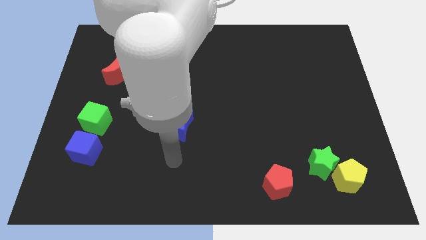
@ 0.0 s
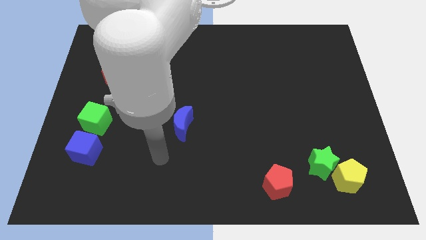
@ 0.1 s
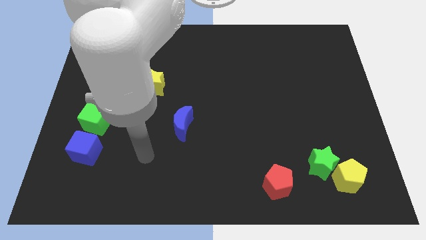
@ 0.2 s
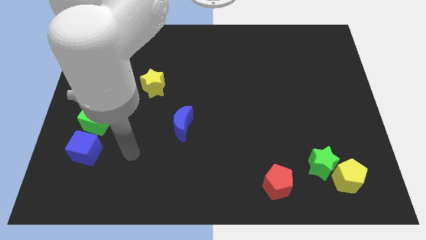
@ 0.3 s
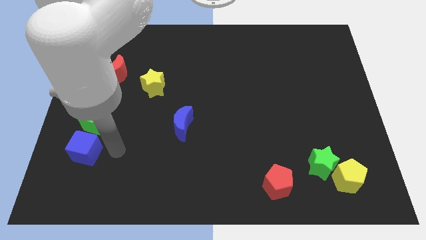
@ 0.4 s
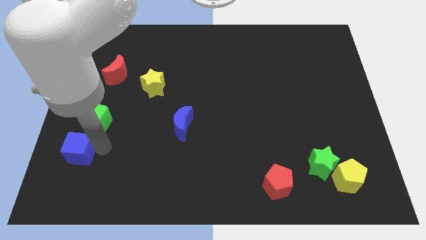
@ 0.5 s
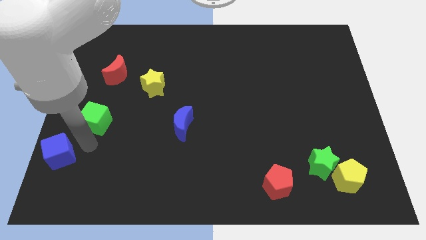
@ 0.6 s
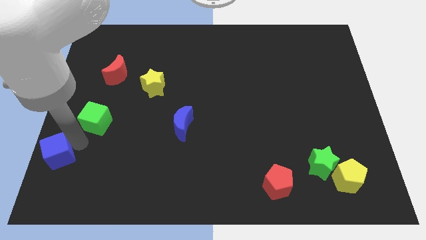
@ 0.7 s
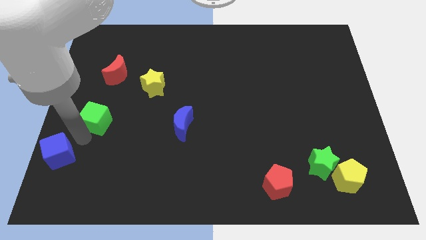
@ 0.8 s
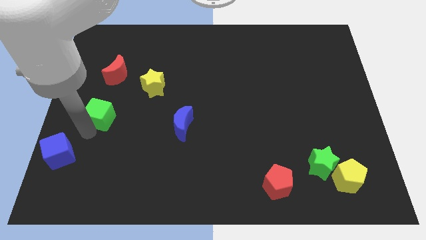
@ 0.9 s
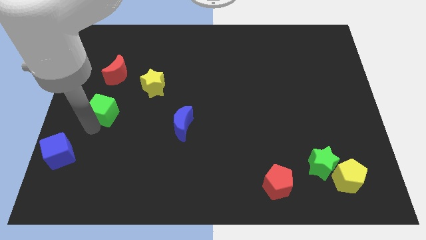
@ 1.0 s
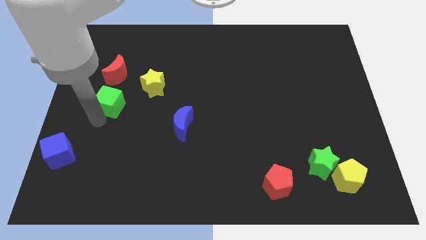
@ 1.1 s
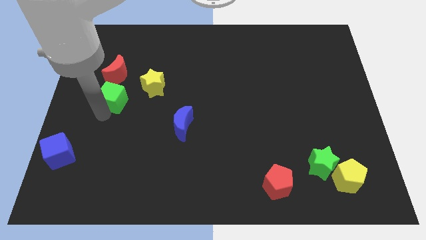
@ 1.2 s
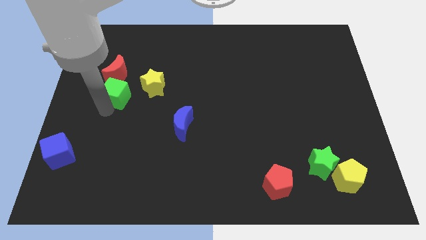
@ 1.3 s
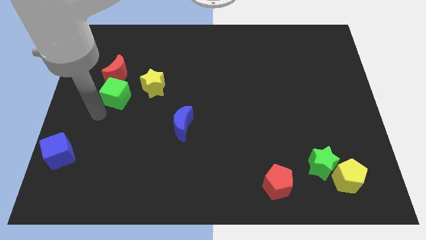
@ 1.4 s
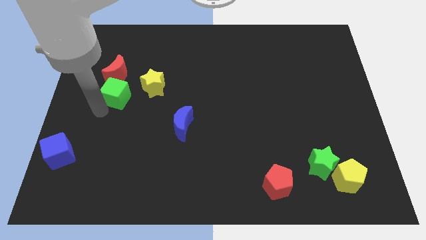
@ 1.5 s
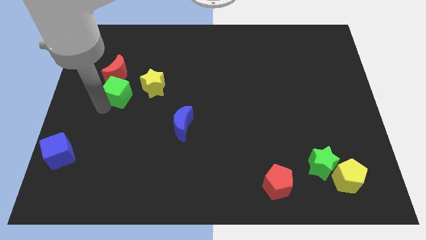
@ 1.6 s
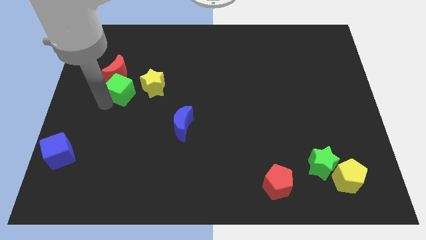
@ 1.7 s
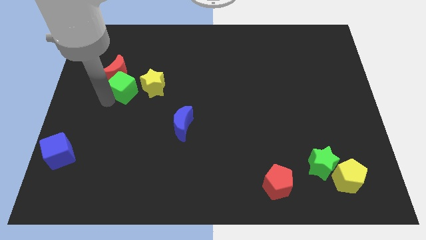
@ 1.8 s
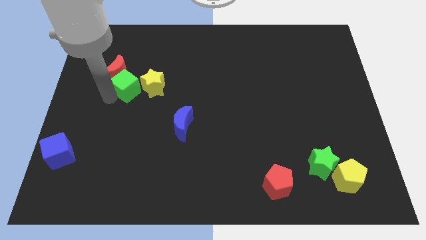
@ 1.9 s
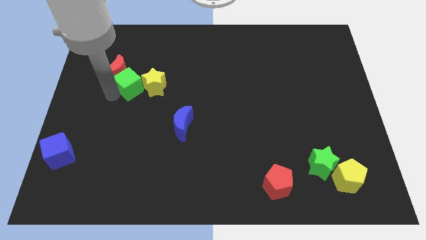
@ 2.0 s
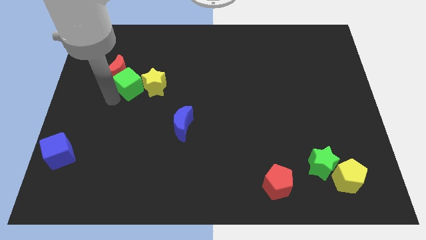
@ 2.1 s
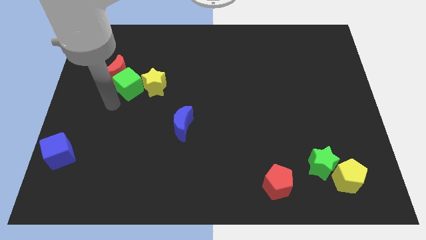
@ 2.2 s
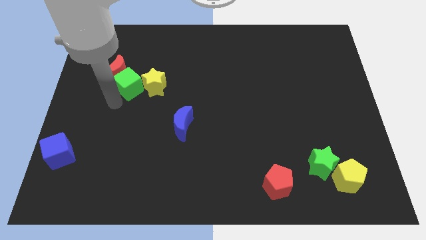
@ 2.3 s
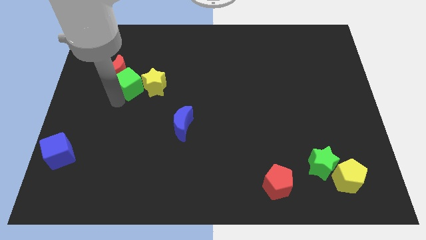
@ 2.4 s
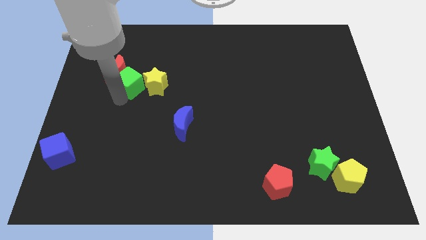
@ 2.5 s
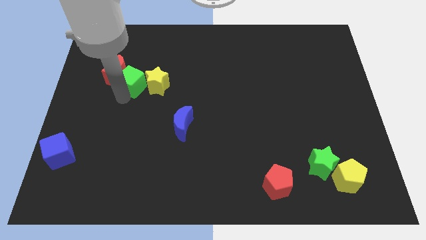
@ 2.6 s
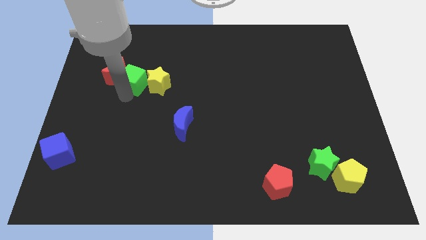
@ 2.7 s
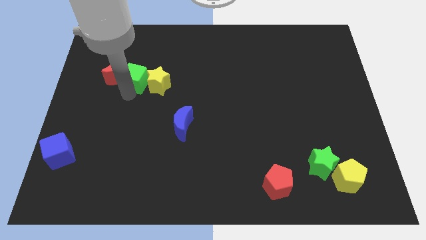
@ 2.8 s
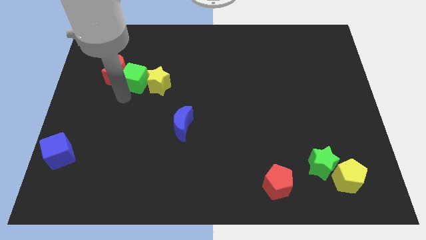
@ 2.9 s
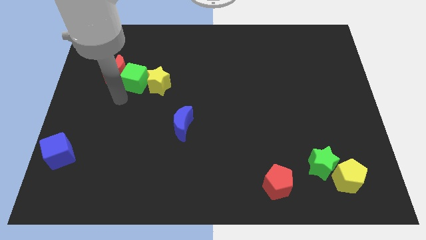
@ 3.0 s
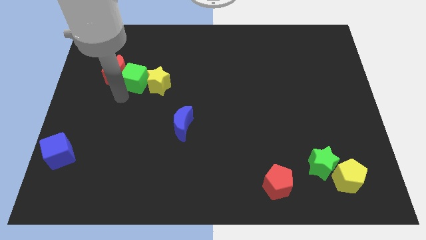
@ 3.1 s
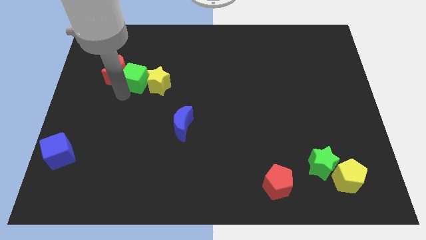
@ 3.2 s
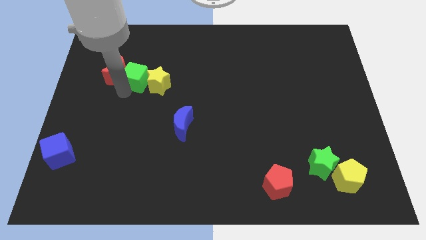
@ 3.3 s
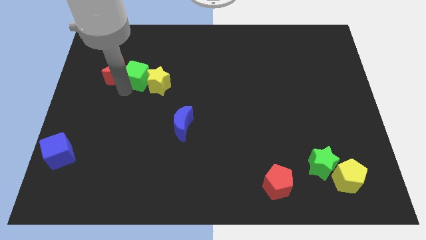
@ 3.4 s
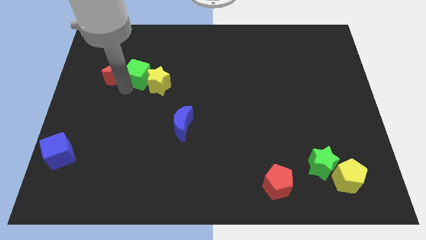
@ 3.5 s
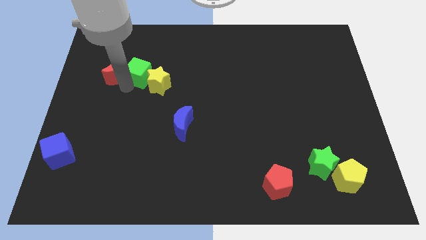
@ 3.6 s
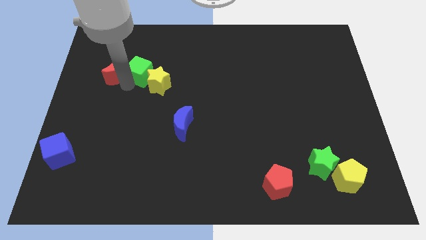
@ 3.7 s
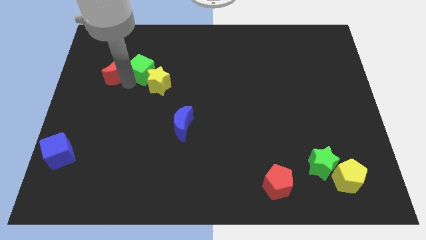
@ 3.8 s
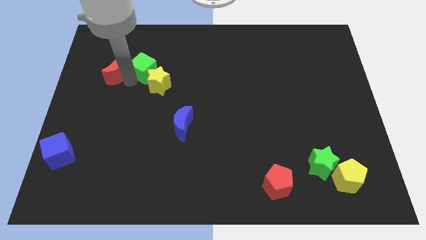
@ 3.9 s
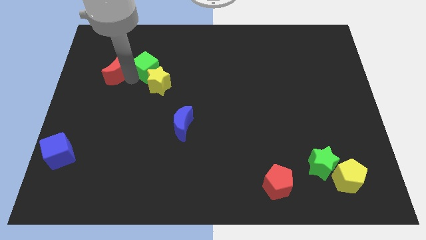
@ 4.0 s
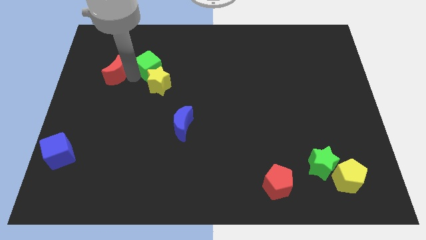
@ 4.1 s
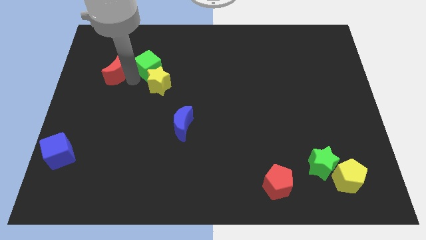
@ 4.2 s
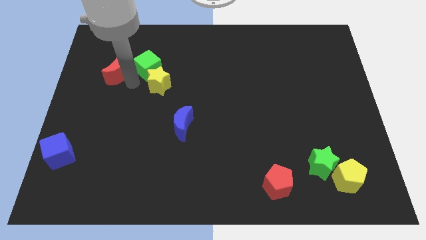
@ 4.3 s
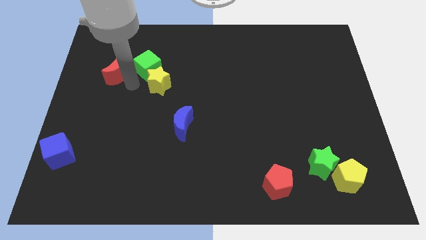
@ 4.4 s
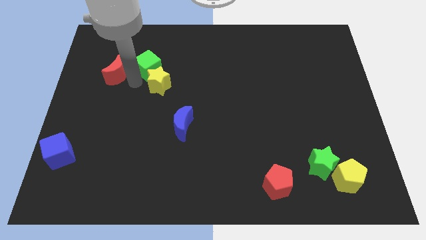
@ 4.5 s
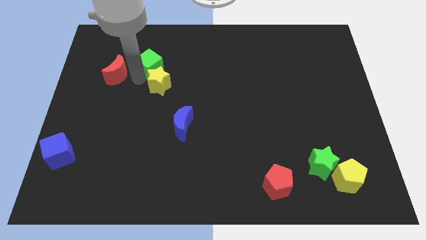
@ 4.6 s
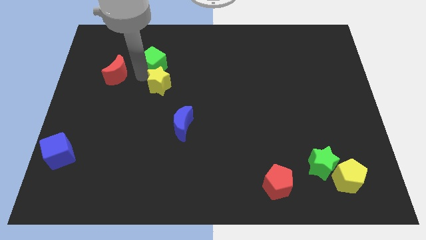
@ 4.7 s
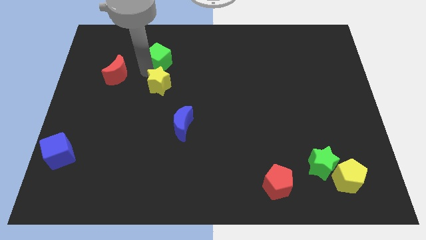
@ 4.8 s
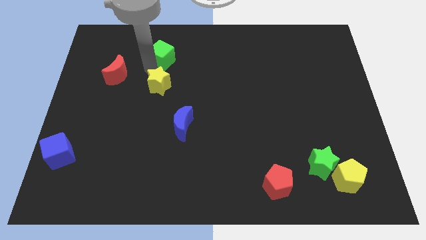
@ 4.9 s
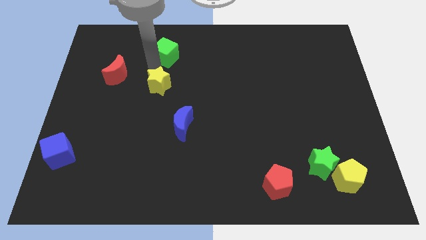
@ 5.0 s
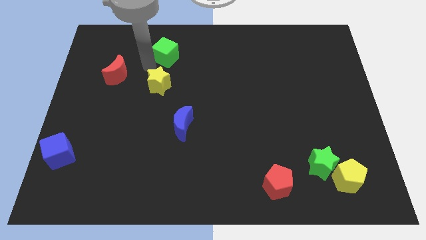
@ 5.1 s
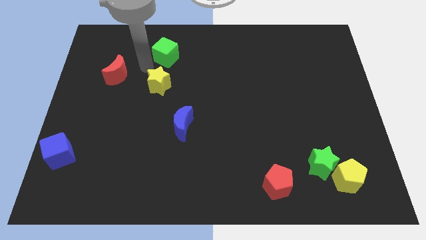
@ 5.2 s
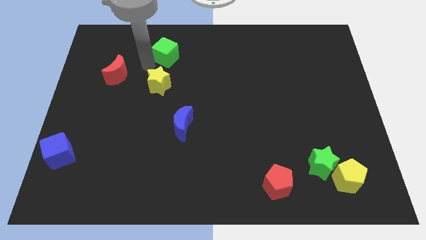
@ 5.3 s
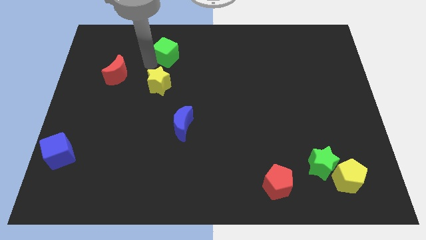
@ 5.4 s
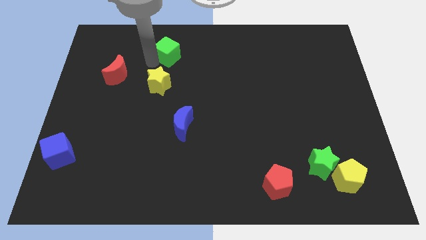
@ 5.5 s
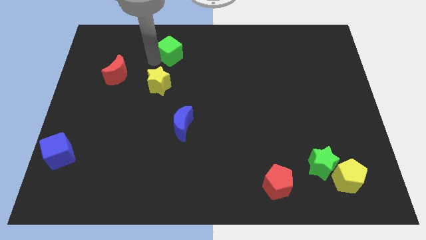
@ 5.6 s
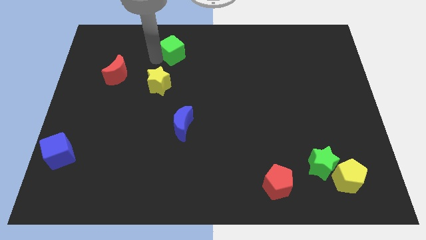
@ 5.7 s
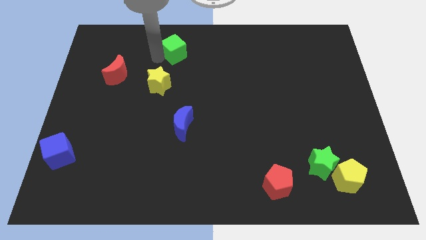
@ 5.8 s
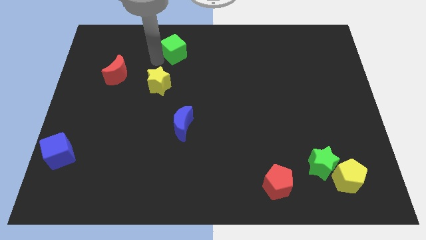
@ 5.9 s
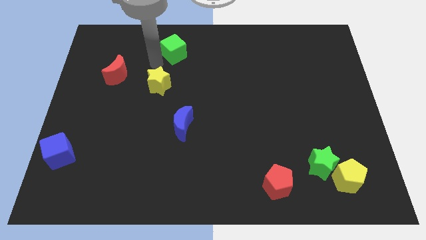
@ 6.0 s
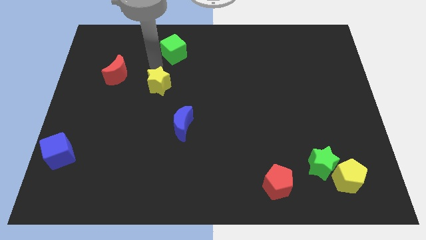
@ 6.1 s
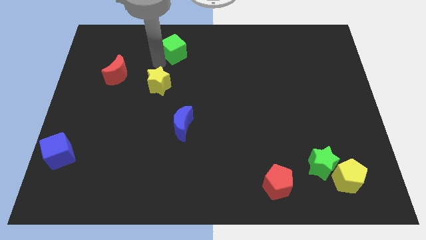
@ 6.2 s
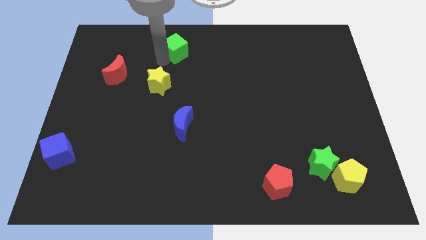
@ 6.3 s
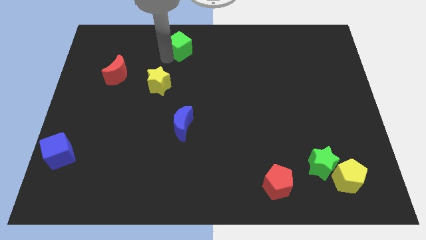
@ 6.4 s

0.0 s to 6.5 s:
put the green cube to the top side

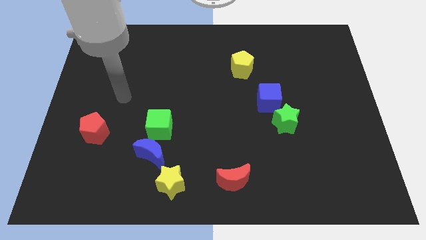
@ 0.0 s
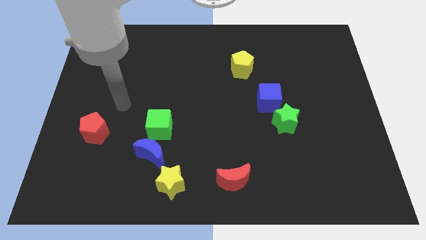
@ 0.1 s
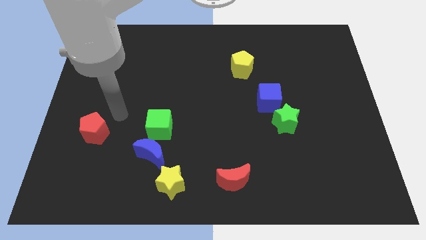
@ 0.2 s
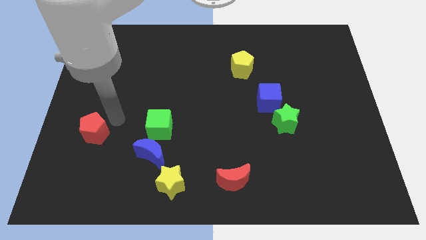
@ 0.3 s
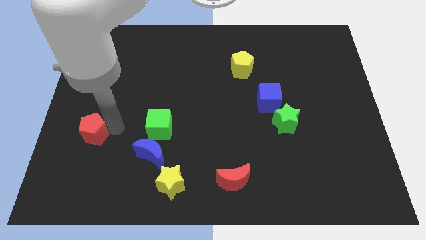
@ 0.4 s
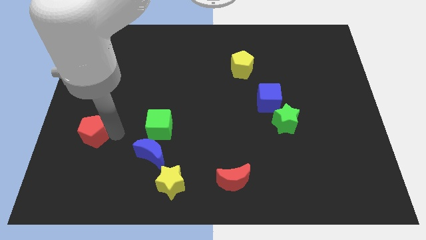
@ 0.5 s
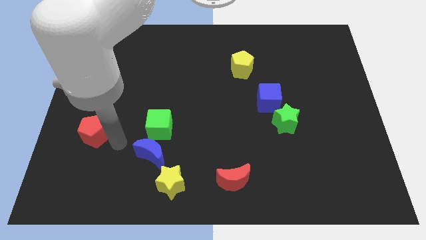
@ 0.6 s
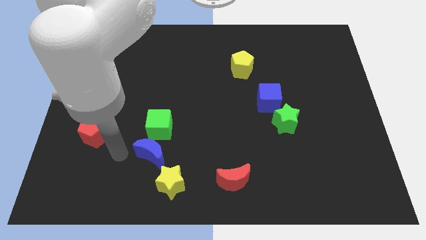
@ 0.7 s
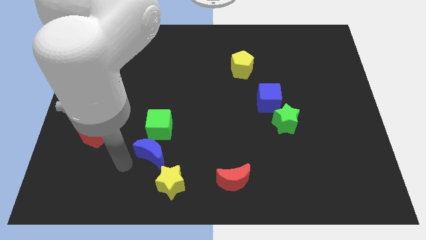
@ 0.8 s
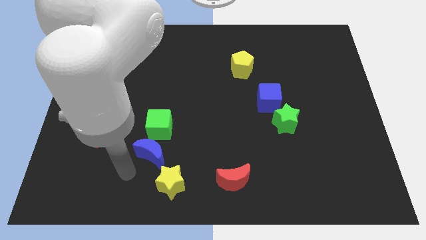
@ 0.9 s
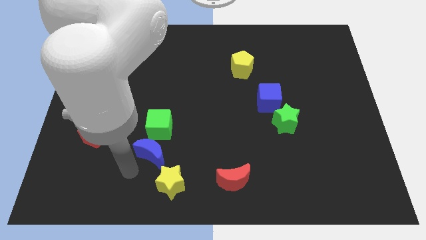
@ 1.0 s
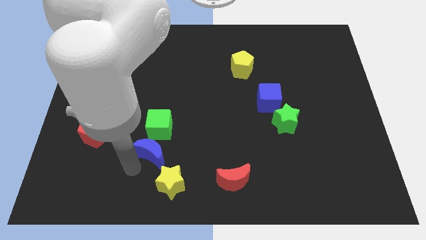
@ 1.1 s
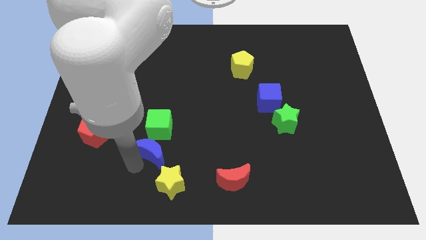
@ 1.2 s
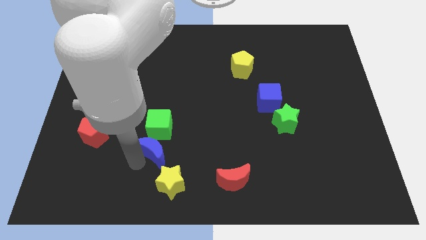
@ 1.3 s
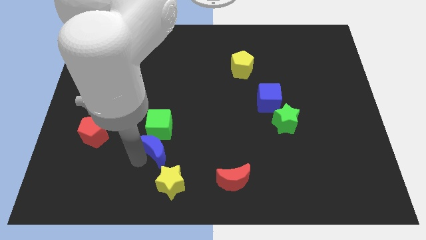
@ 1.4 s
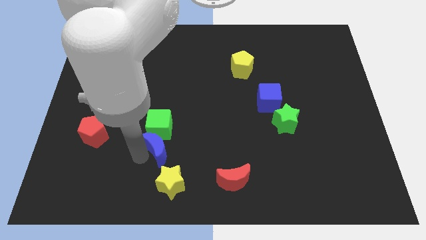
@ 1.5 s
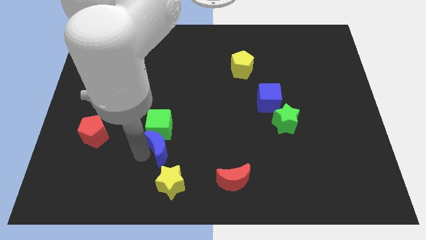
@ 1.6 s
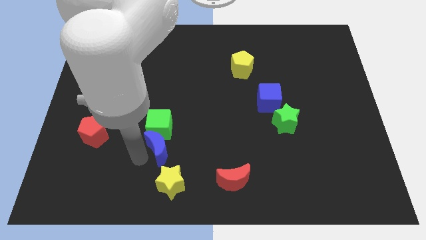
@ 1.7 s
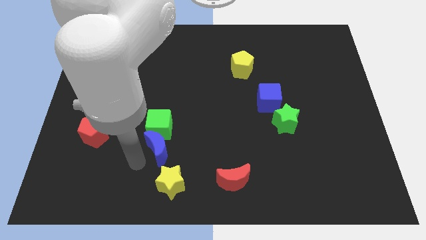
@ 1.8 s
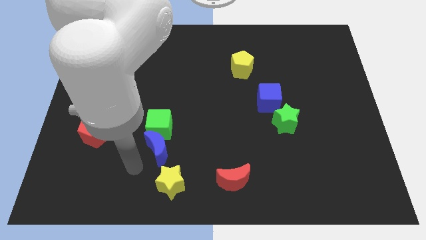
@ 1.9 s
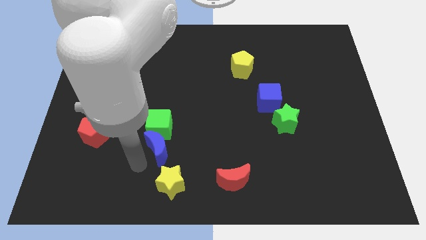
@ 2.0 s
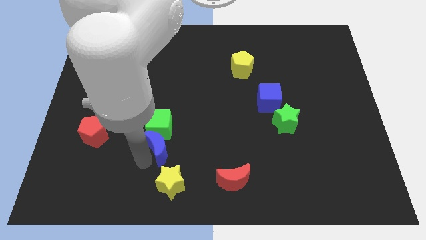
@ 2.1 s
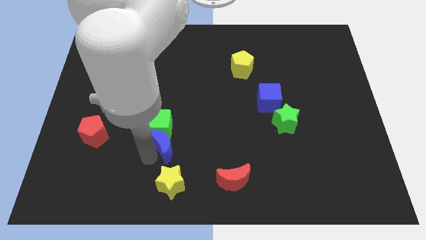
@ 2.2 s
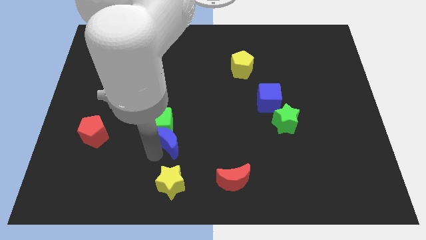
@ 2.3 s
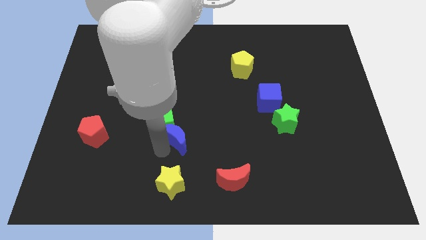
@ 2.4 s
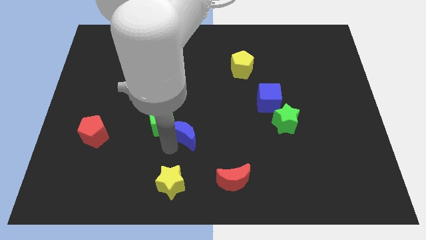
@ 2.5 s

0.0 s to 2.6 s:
move the blue moon to the center of the board
